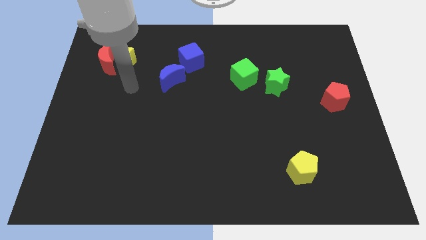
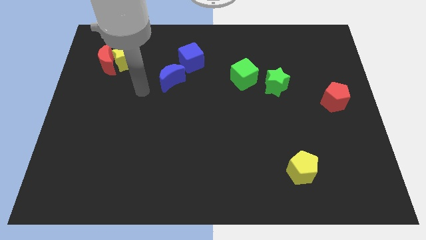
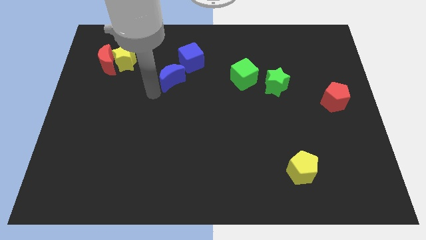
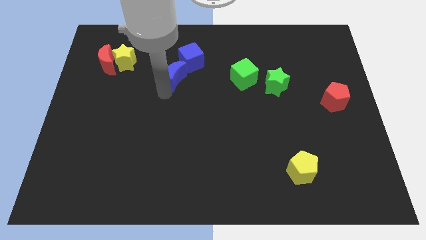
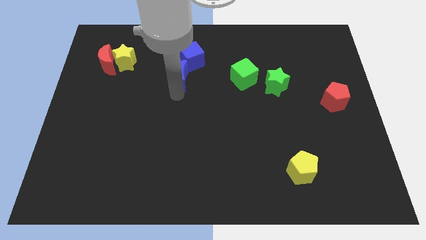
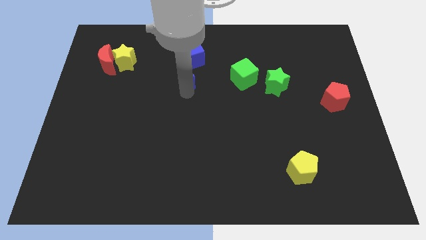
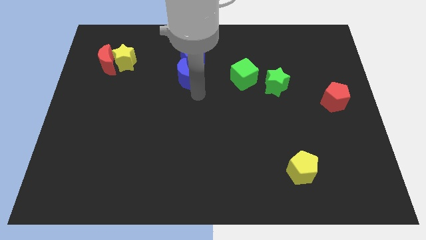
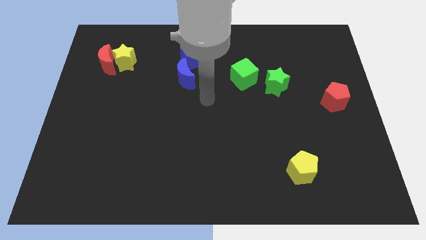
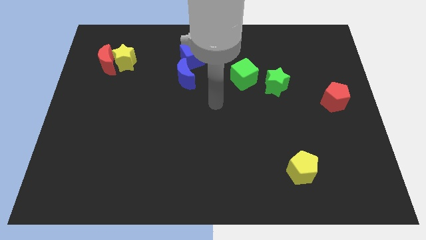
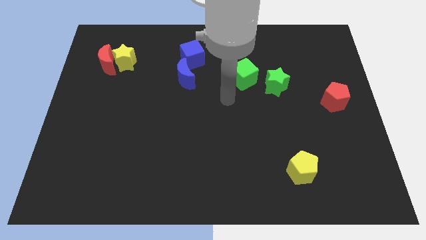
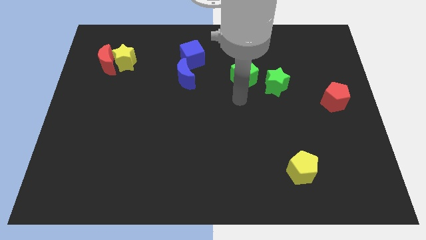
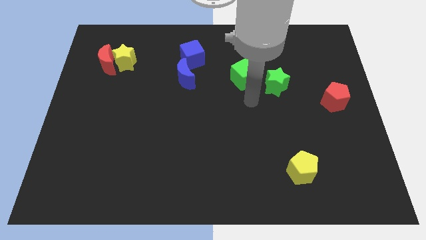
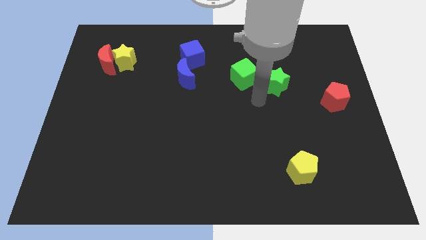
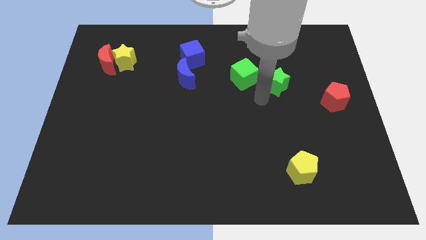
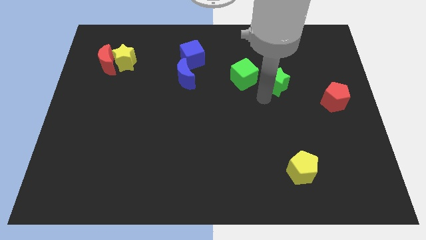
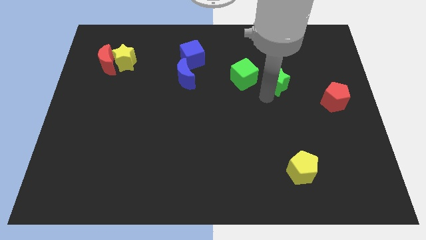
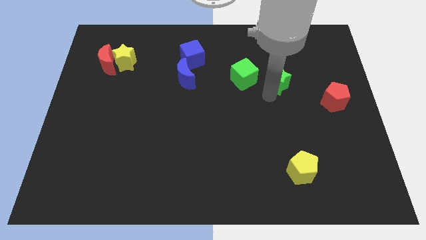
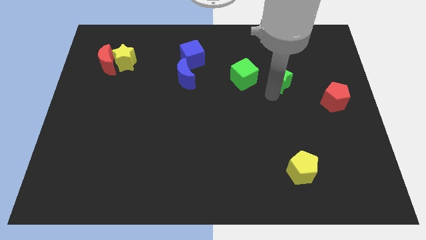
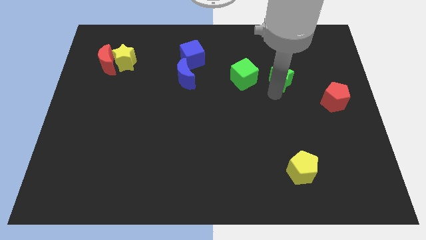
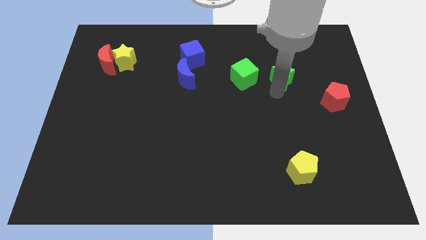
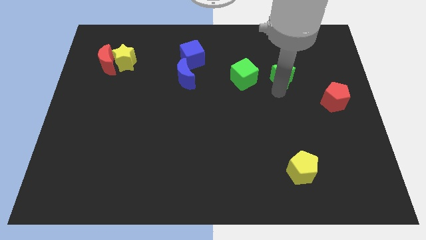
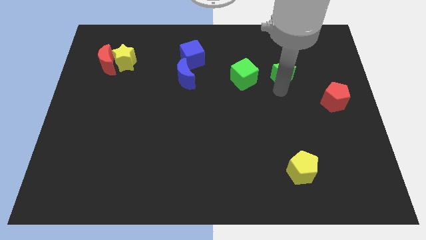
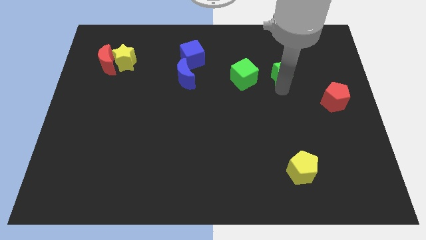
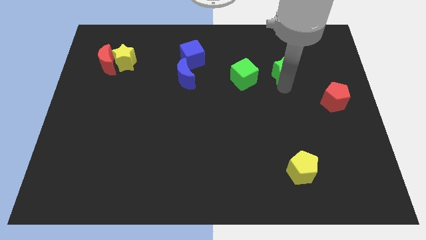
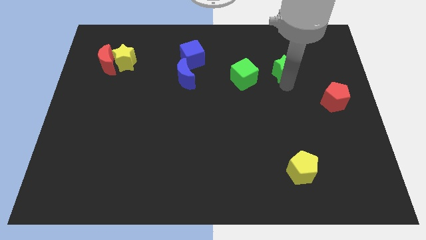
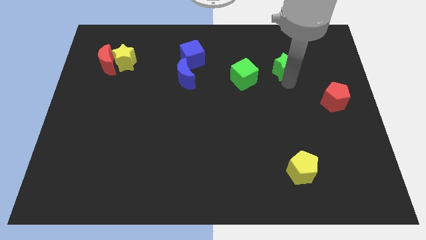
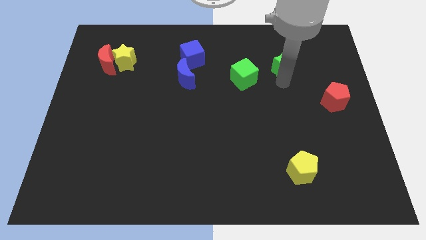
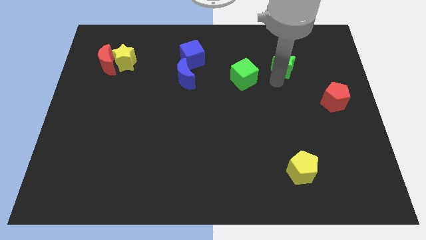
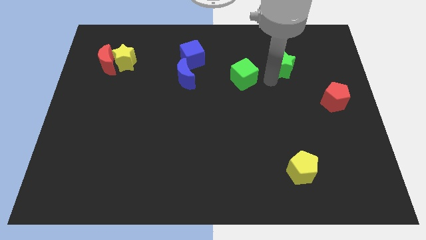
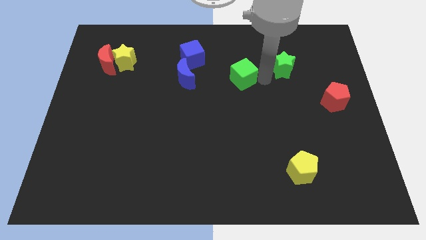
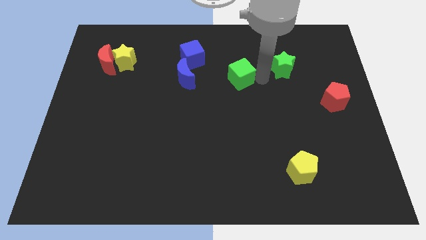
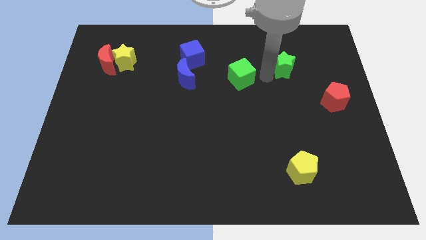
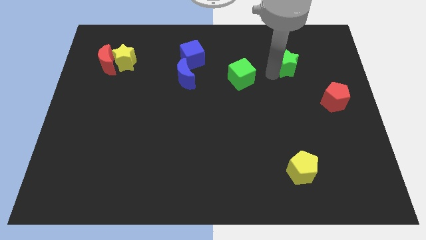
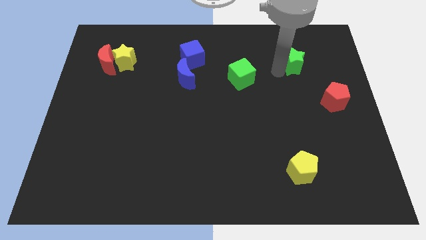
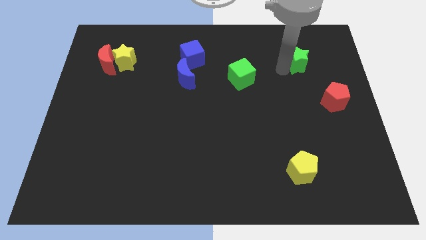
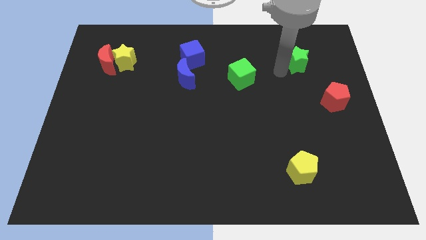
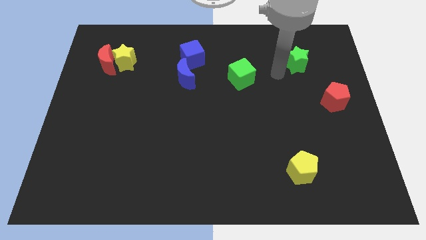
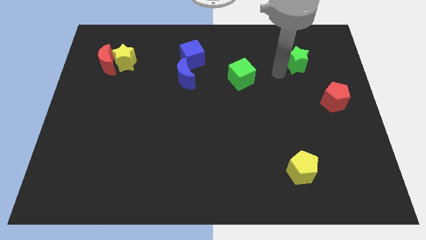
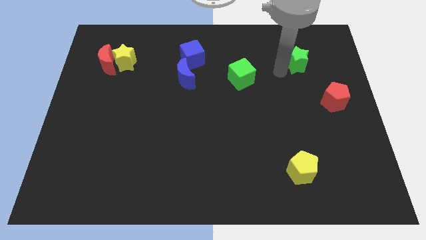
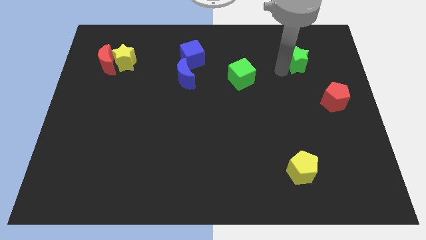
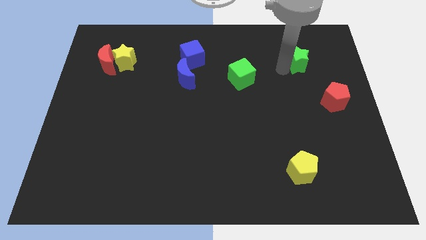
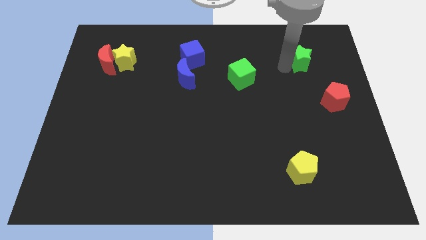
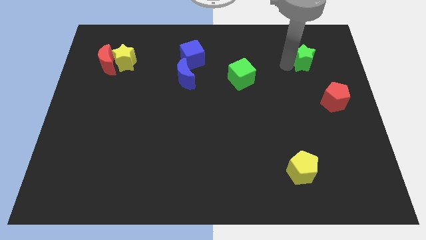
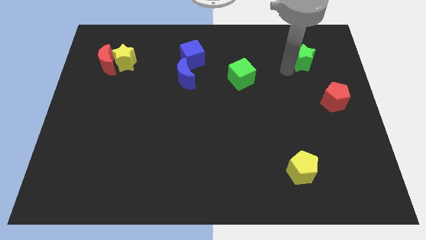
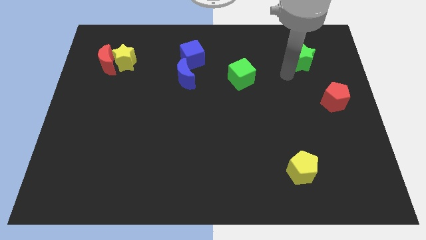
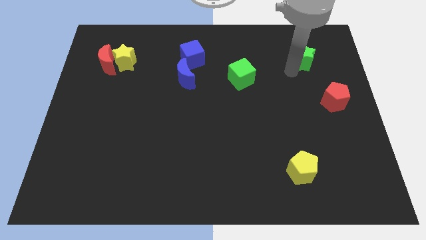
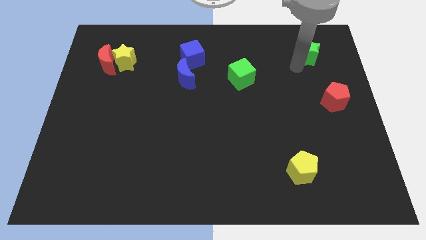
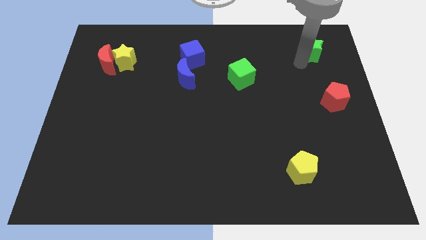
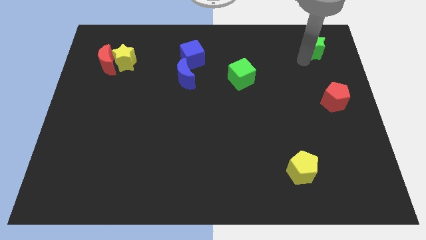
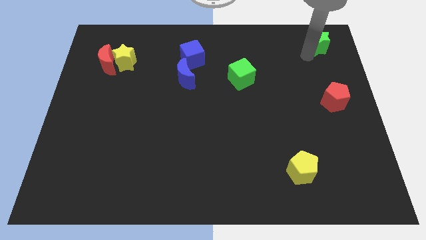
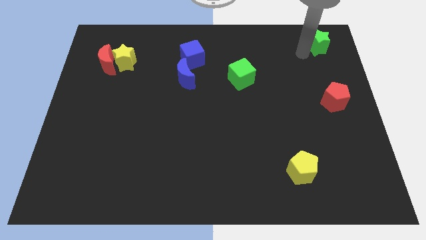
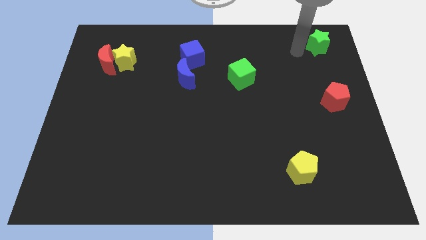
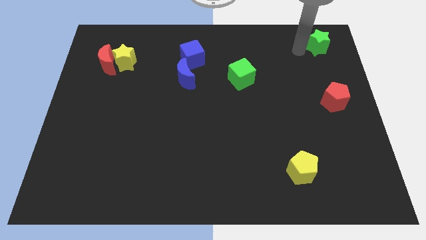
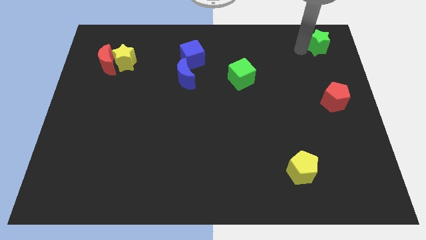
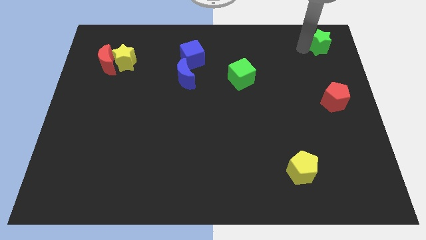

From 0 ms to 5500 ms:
push the green star to the top right corner
